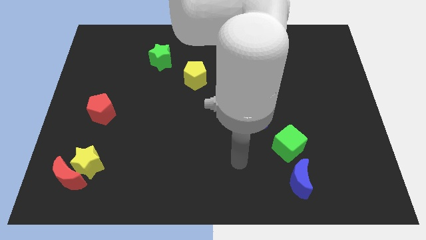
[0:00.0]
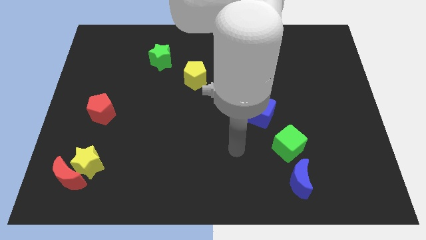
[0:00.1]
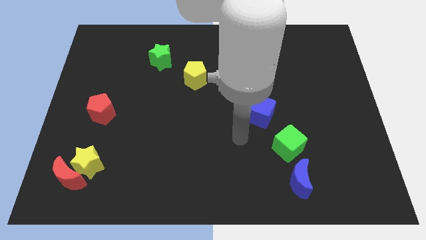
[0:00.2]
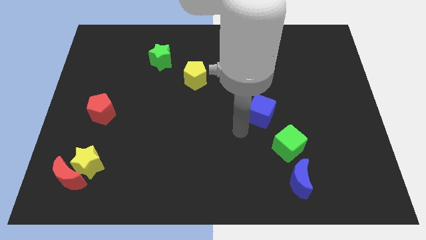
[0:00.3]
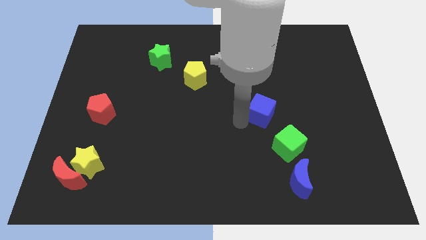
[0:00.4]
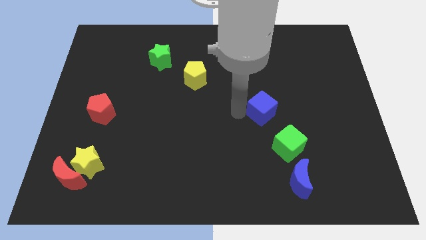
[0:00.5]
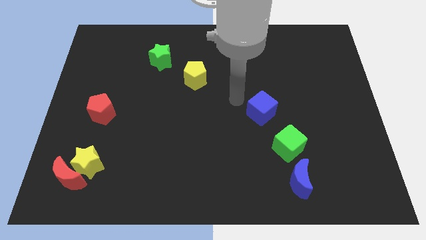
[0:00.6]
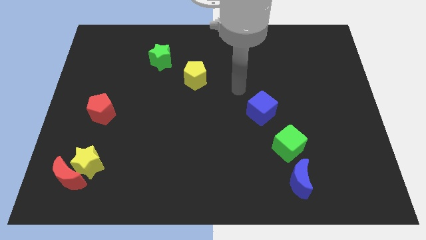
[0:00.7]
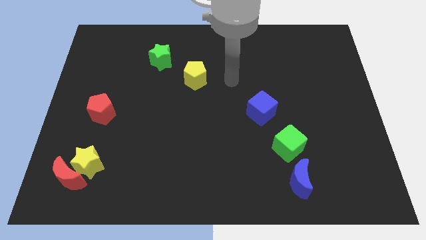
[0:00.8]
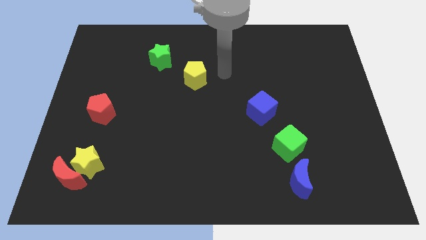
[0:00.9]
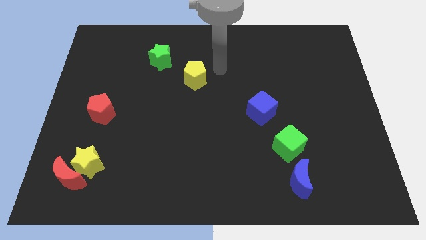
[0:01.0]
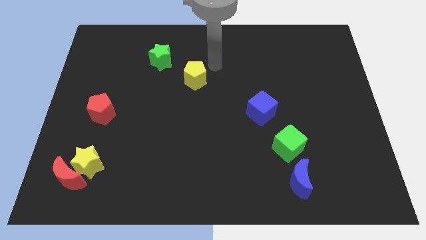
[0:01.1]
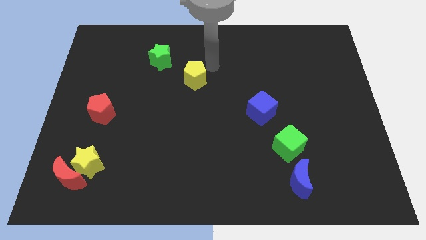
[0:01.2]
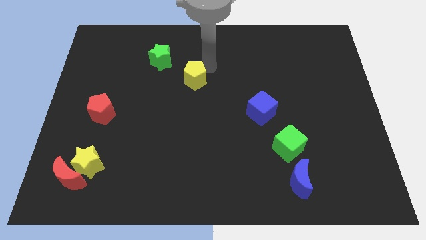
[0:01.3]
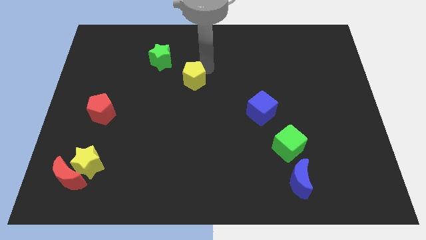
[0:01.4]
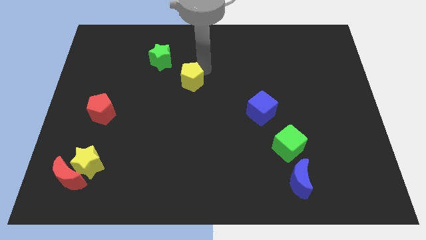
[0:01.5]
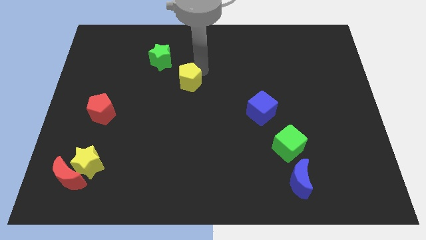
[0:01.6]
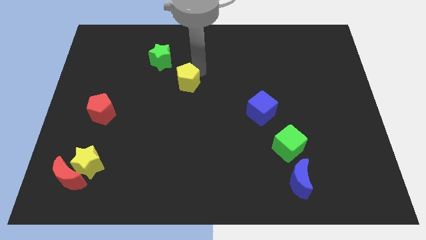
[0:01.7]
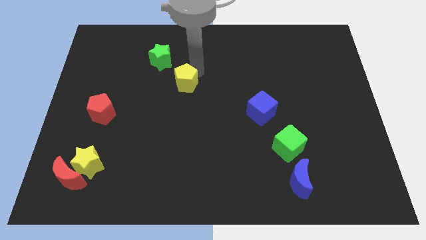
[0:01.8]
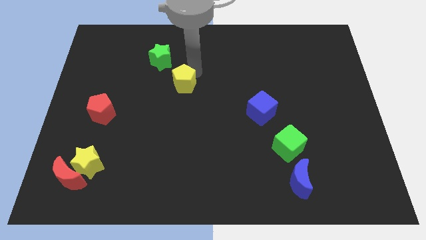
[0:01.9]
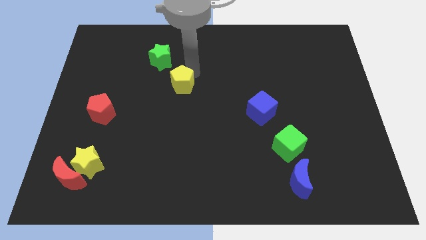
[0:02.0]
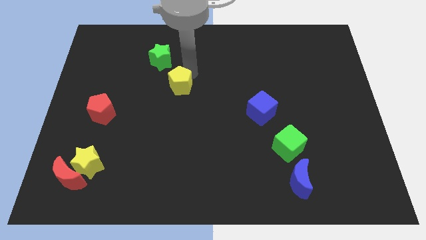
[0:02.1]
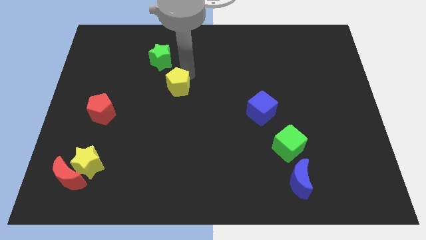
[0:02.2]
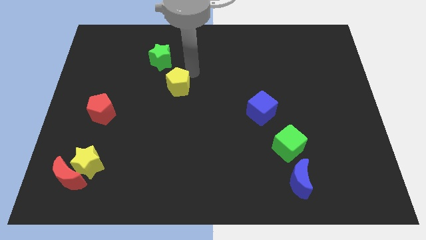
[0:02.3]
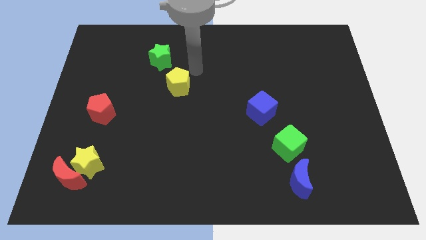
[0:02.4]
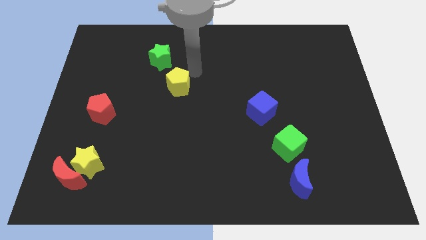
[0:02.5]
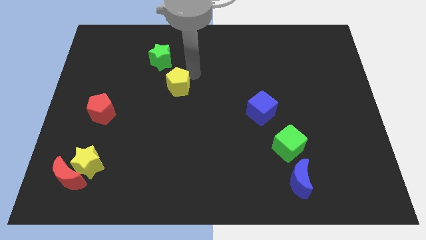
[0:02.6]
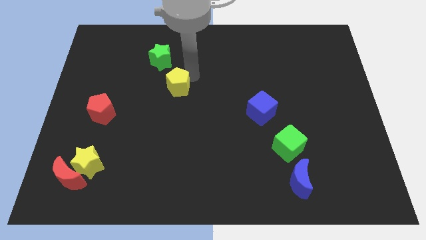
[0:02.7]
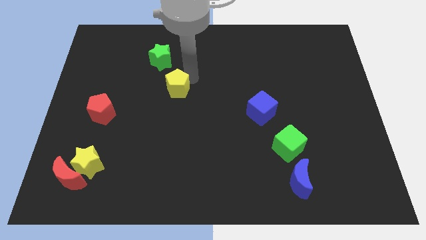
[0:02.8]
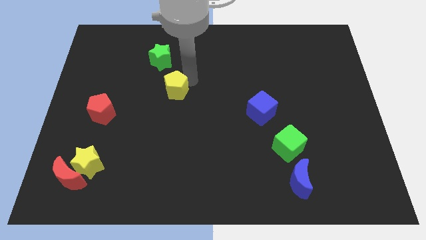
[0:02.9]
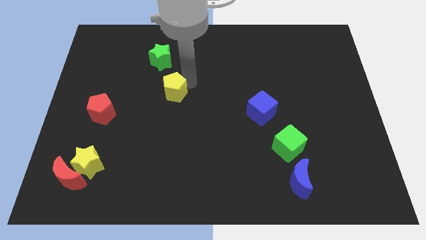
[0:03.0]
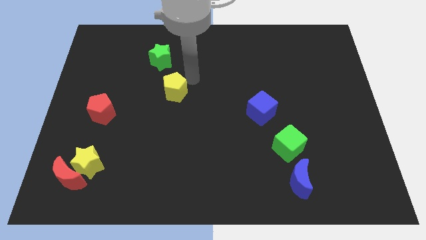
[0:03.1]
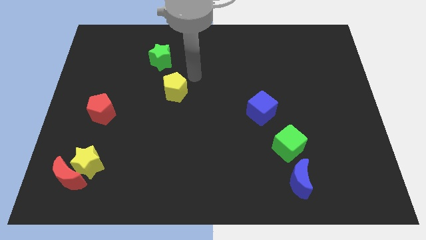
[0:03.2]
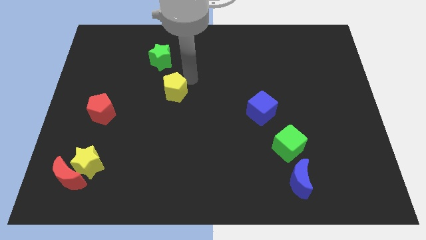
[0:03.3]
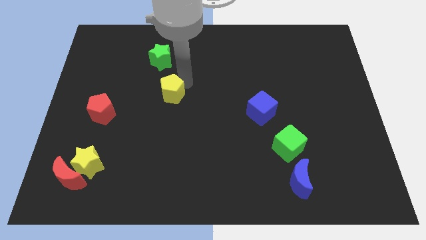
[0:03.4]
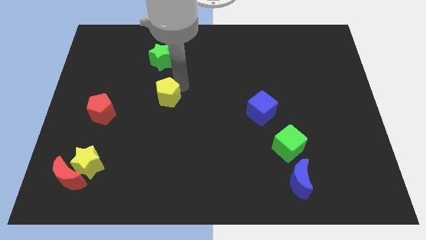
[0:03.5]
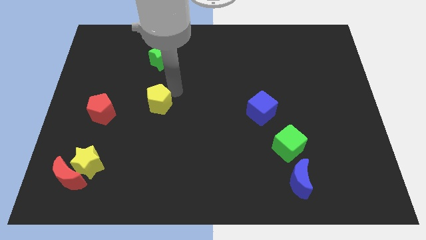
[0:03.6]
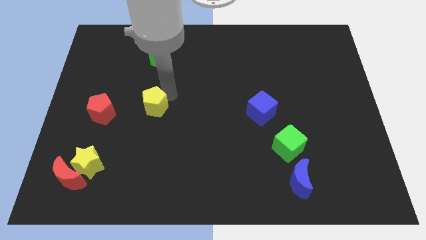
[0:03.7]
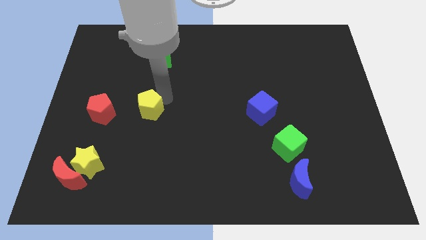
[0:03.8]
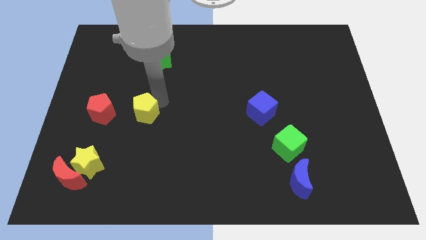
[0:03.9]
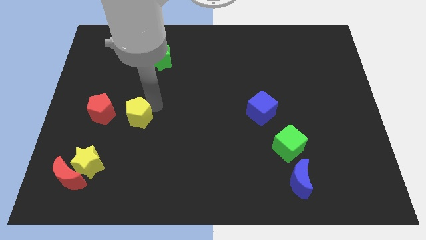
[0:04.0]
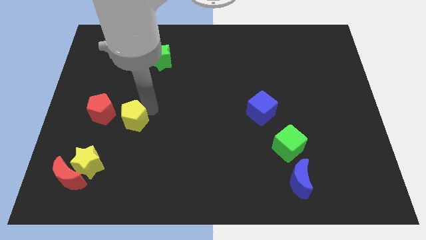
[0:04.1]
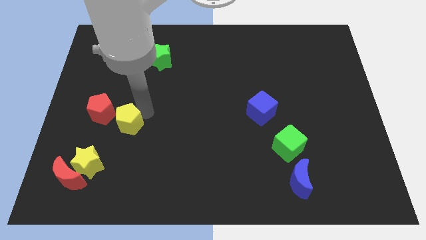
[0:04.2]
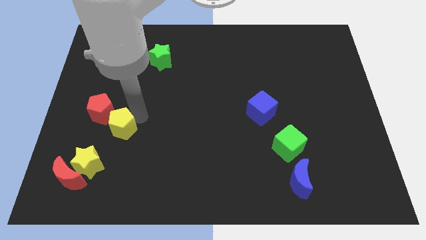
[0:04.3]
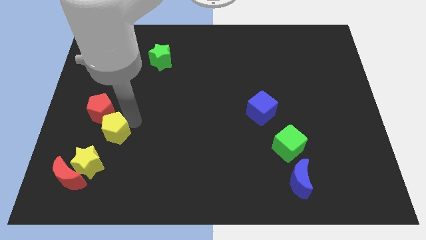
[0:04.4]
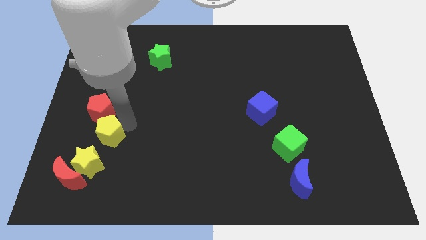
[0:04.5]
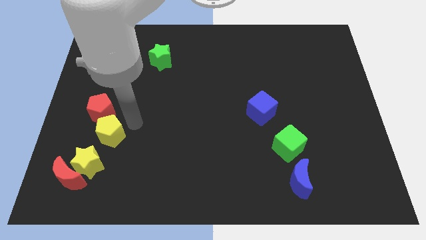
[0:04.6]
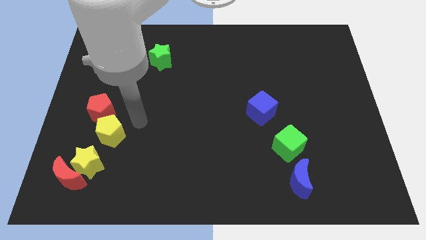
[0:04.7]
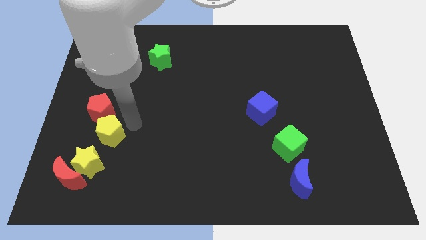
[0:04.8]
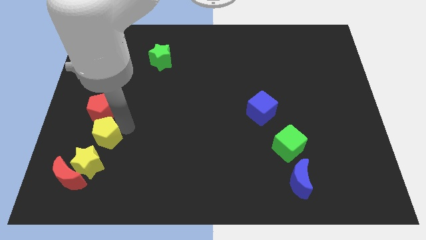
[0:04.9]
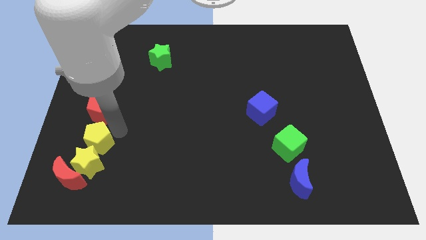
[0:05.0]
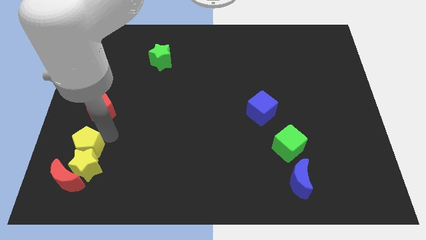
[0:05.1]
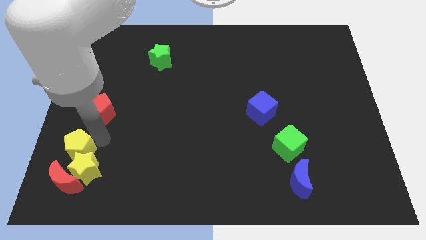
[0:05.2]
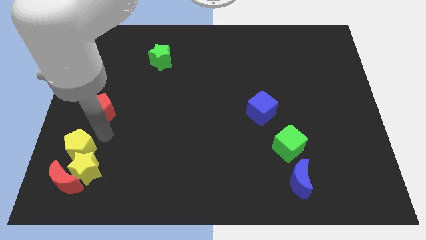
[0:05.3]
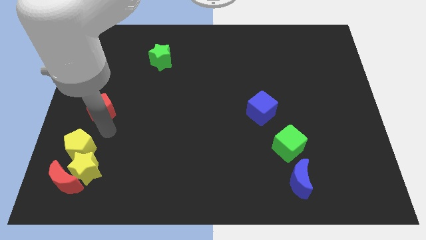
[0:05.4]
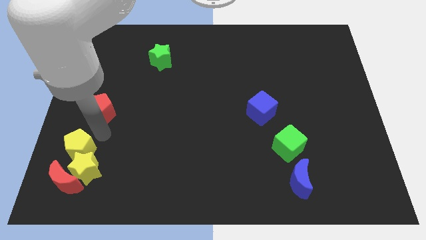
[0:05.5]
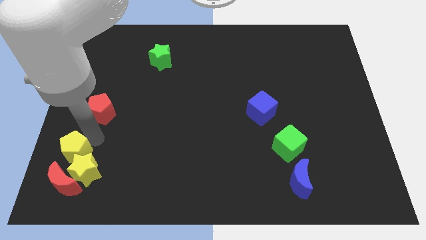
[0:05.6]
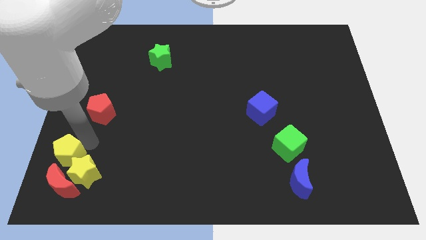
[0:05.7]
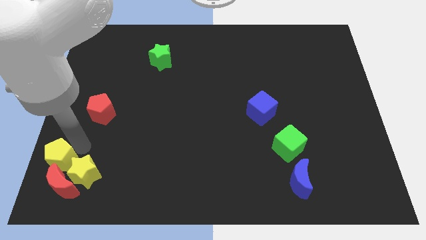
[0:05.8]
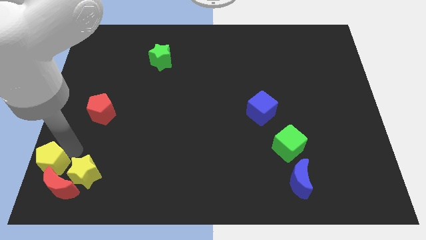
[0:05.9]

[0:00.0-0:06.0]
put the yellow pentagon to the lower left corner

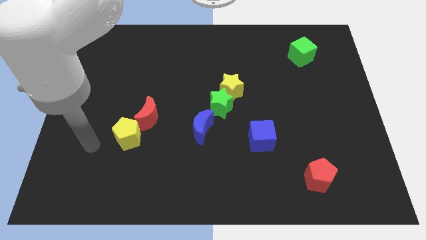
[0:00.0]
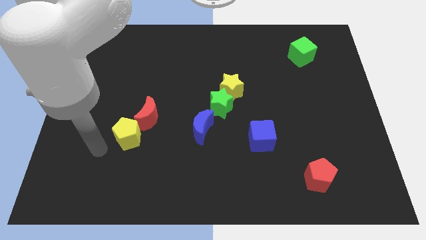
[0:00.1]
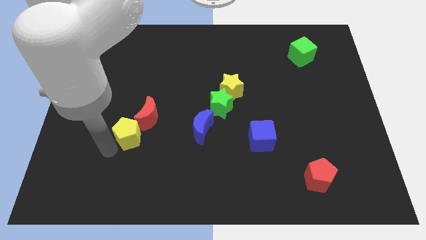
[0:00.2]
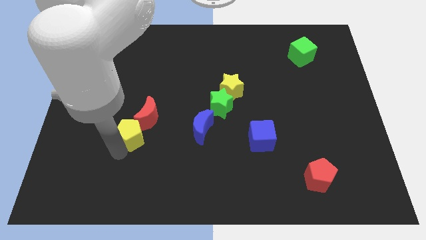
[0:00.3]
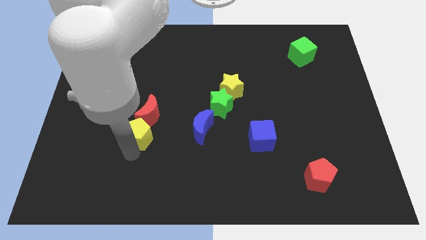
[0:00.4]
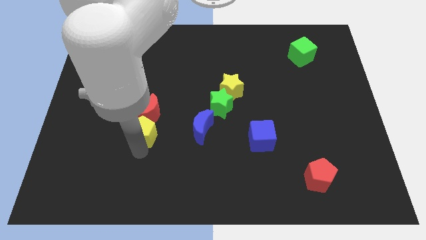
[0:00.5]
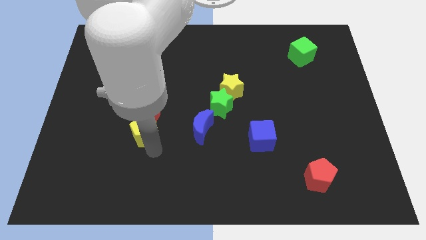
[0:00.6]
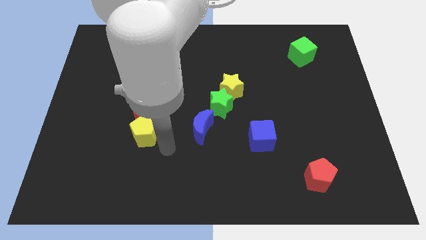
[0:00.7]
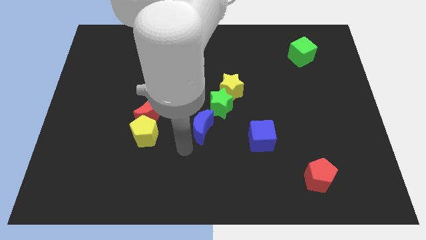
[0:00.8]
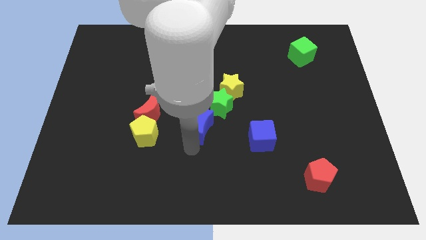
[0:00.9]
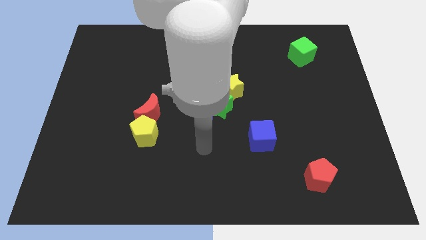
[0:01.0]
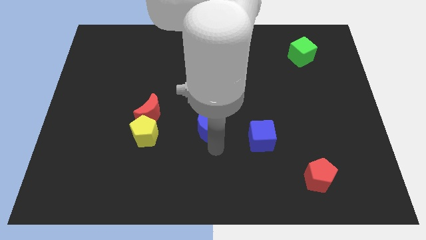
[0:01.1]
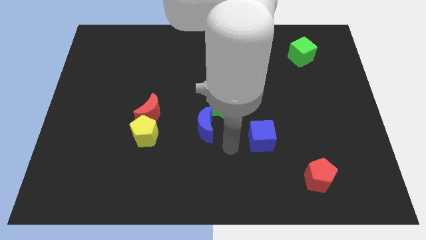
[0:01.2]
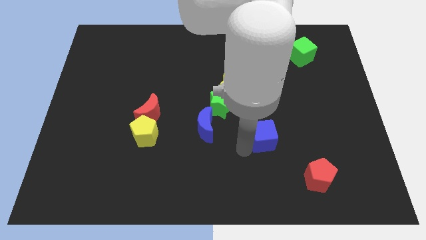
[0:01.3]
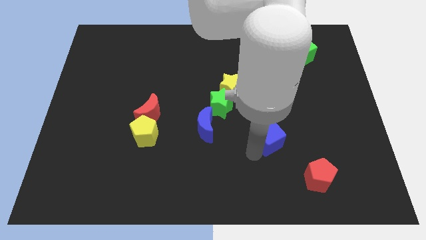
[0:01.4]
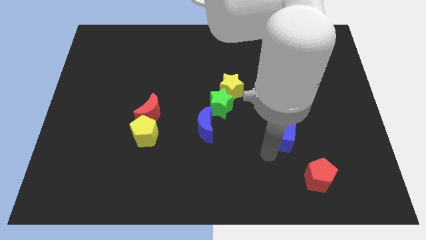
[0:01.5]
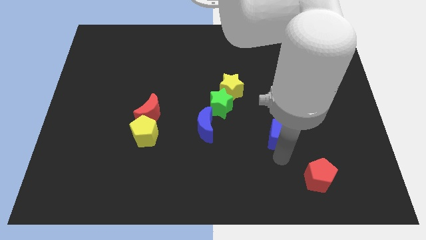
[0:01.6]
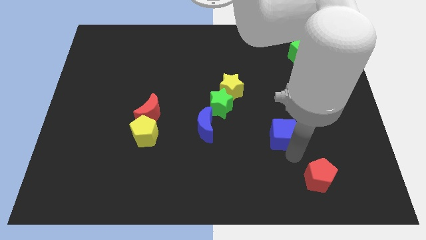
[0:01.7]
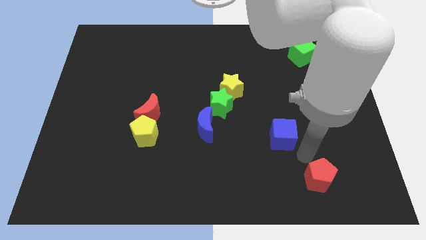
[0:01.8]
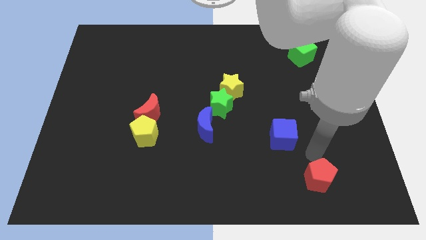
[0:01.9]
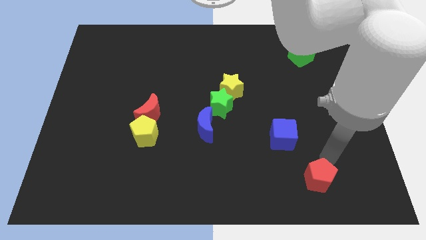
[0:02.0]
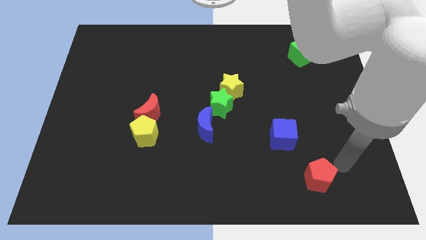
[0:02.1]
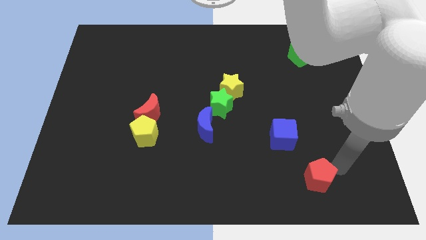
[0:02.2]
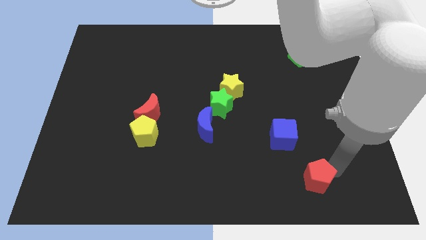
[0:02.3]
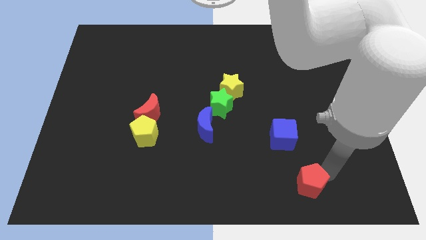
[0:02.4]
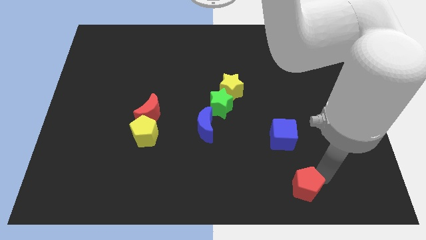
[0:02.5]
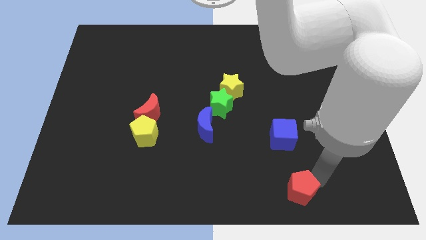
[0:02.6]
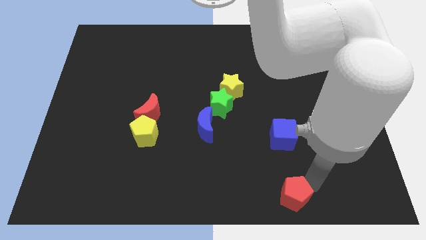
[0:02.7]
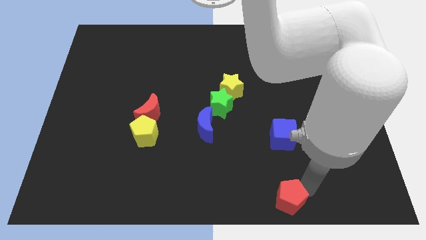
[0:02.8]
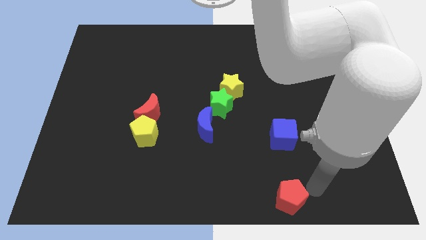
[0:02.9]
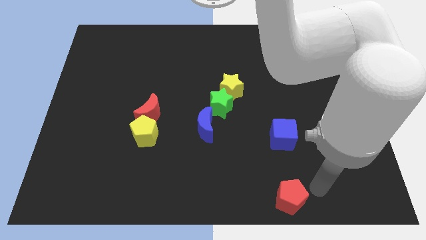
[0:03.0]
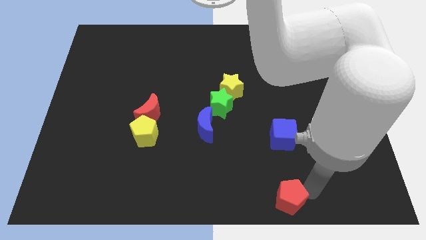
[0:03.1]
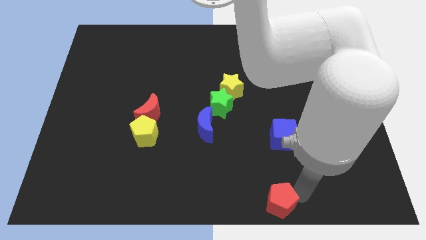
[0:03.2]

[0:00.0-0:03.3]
move the red pentagon to the bottom side
